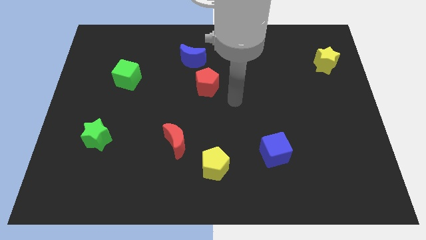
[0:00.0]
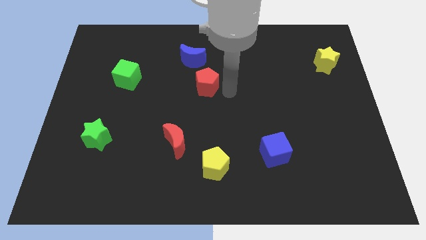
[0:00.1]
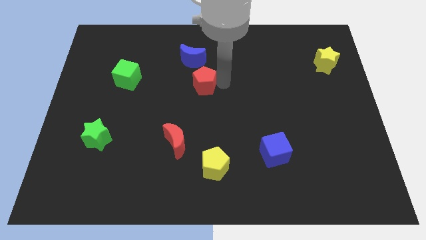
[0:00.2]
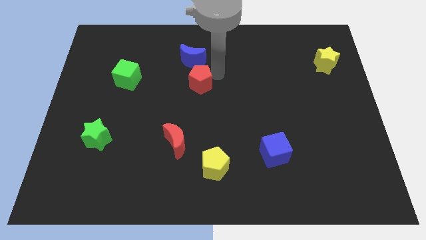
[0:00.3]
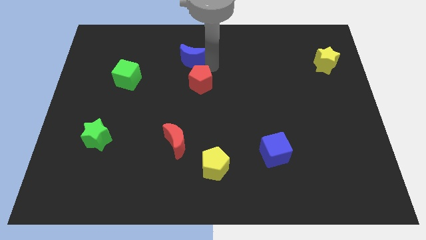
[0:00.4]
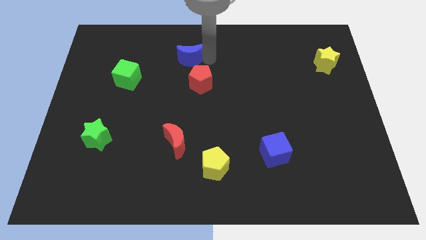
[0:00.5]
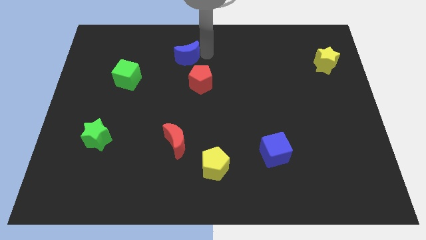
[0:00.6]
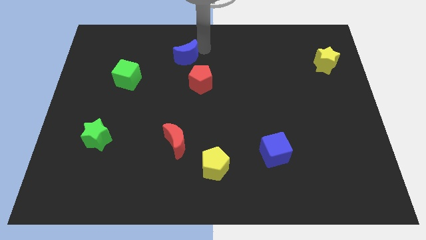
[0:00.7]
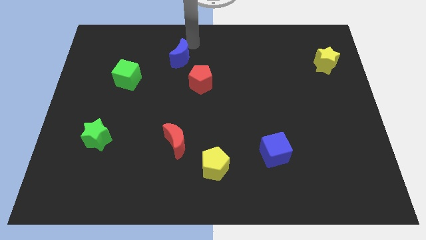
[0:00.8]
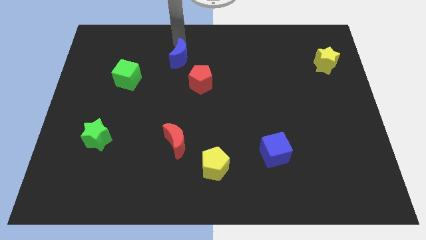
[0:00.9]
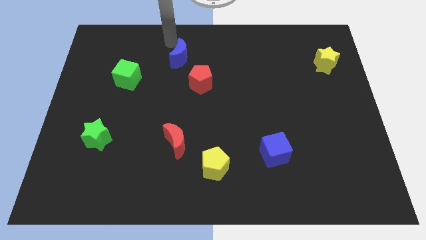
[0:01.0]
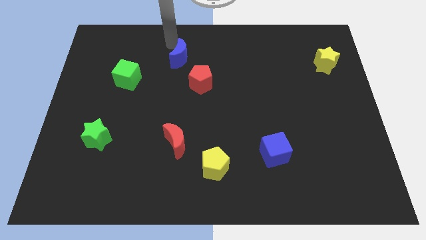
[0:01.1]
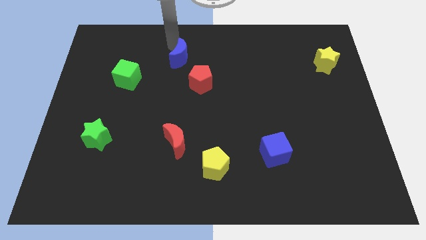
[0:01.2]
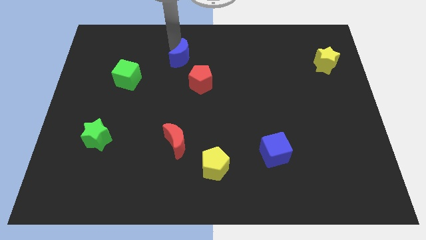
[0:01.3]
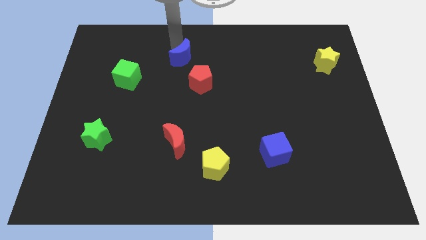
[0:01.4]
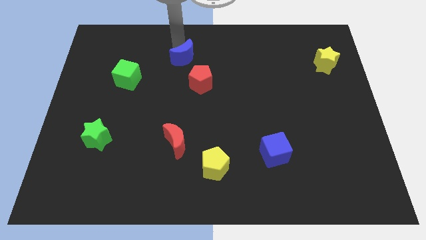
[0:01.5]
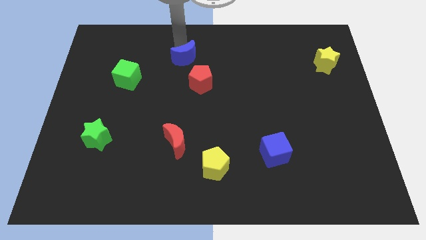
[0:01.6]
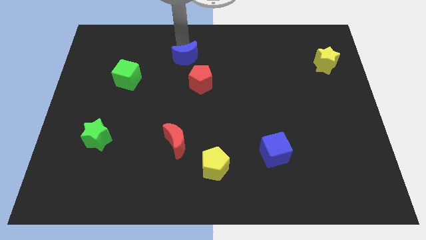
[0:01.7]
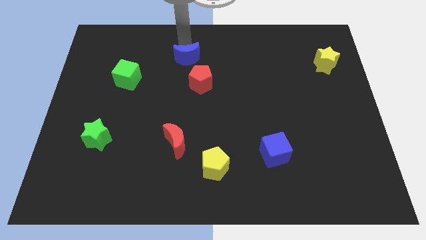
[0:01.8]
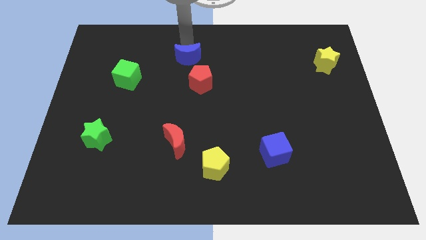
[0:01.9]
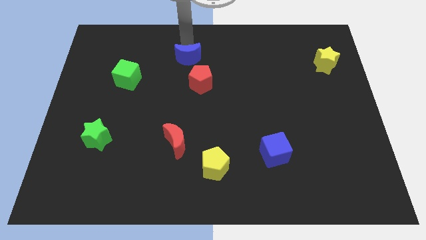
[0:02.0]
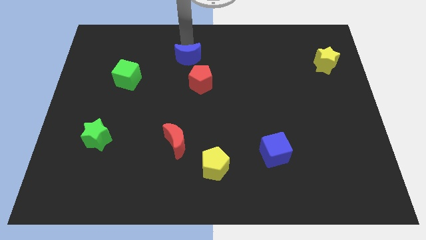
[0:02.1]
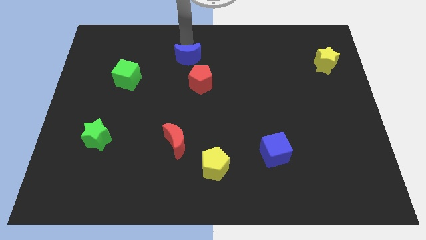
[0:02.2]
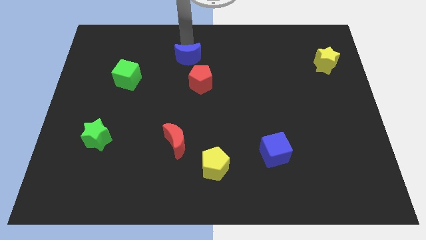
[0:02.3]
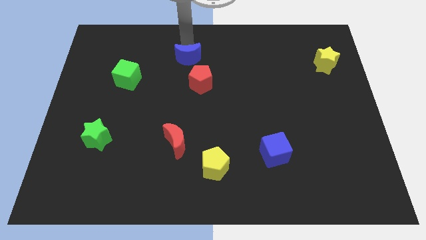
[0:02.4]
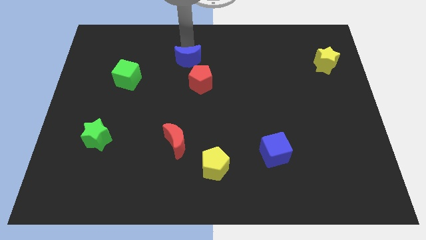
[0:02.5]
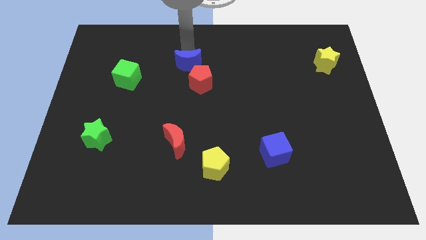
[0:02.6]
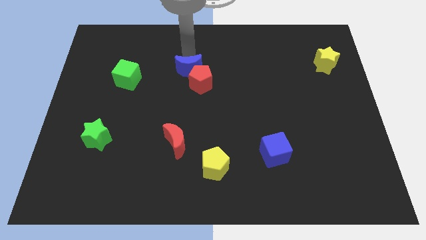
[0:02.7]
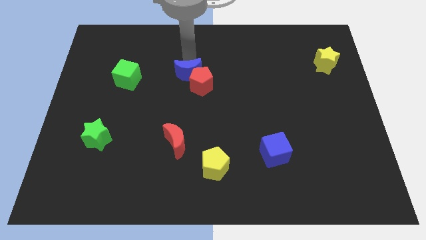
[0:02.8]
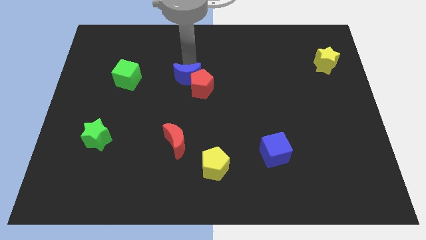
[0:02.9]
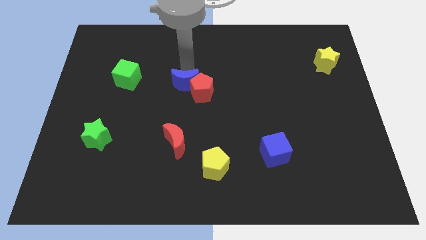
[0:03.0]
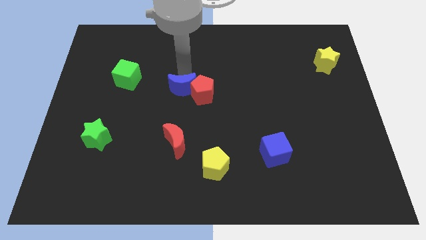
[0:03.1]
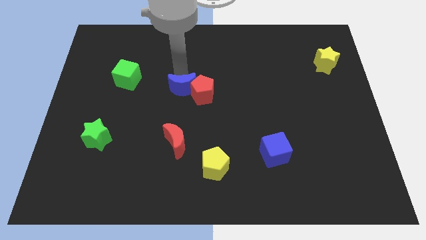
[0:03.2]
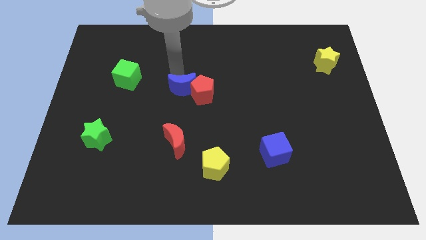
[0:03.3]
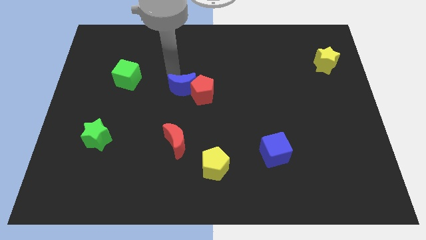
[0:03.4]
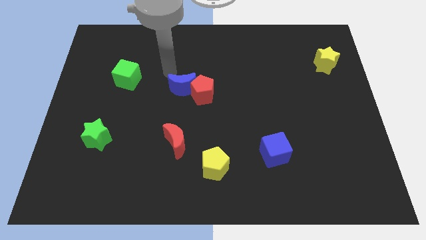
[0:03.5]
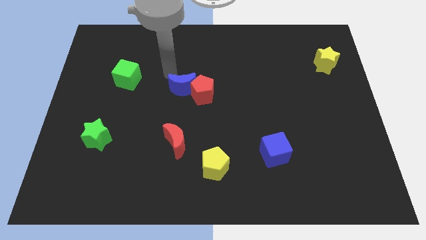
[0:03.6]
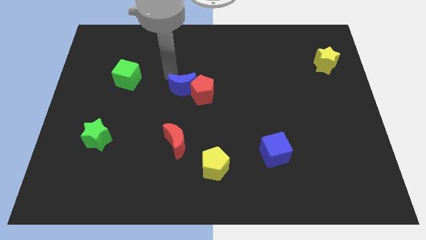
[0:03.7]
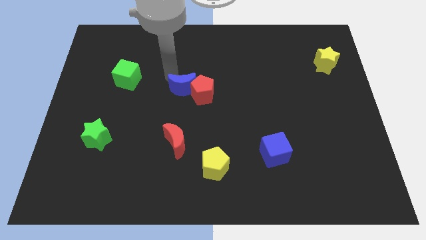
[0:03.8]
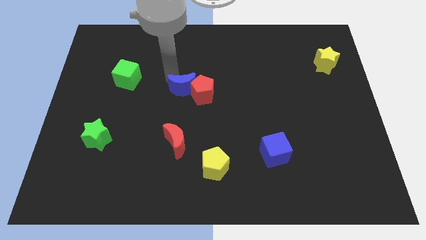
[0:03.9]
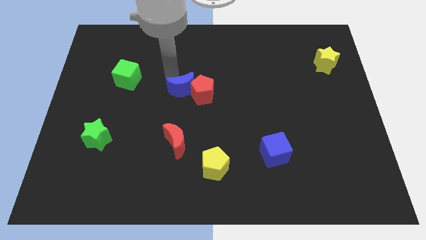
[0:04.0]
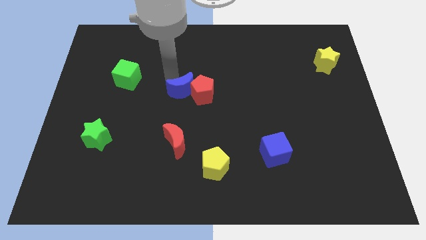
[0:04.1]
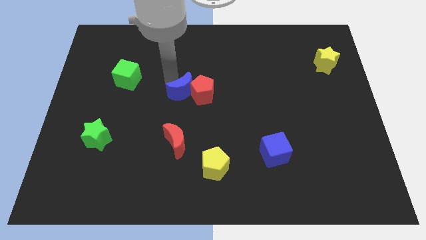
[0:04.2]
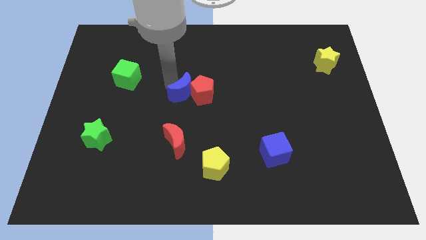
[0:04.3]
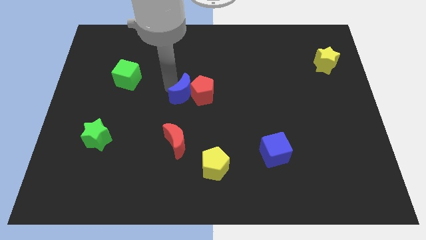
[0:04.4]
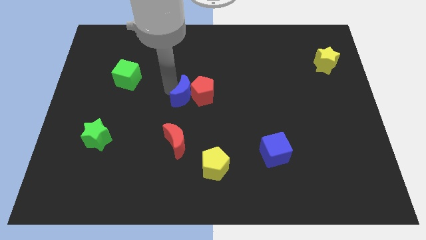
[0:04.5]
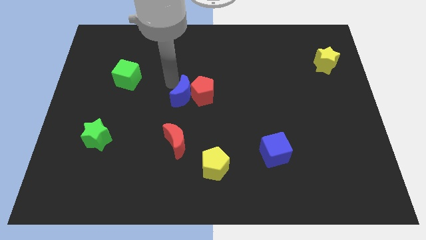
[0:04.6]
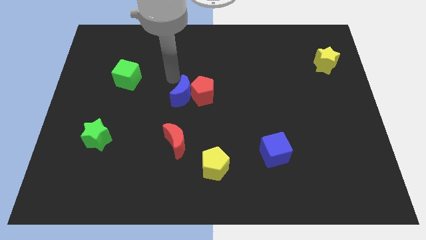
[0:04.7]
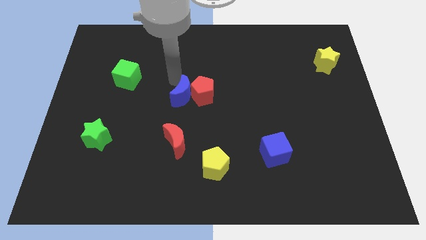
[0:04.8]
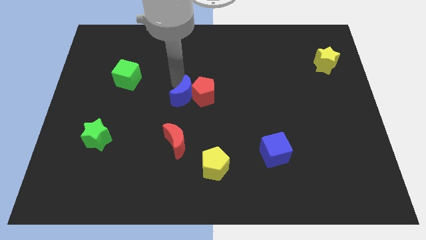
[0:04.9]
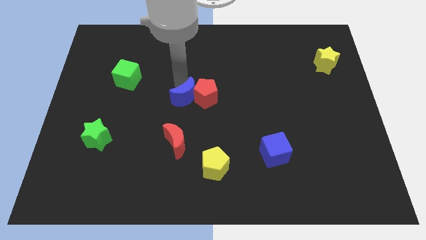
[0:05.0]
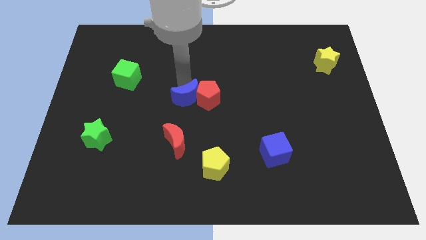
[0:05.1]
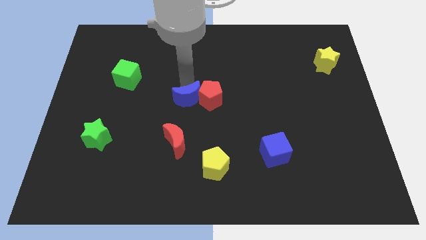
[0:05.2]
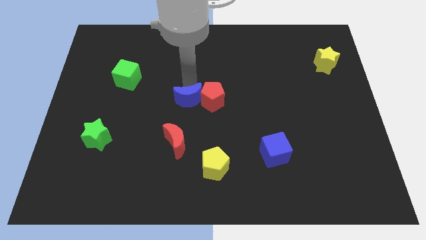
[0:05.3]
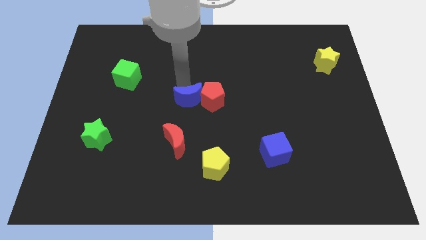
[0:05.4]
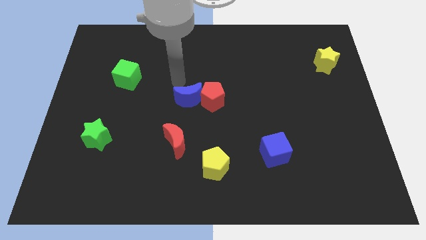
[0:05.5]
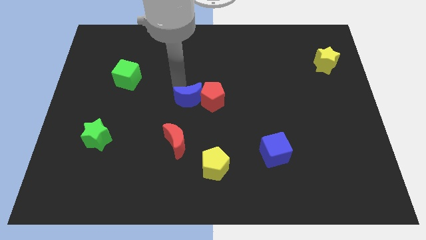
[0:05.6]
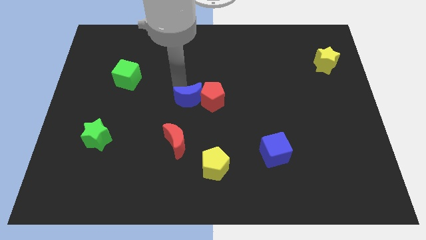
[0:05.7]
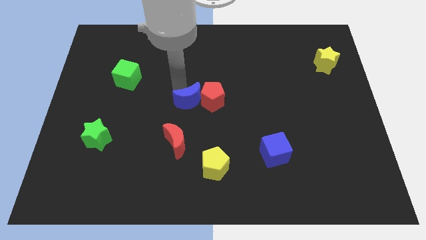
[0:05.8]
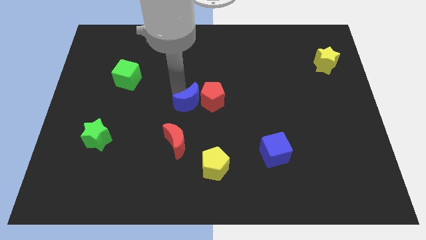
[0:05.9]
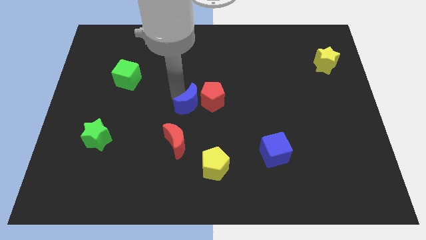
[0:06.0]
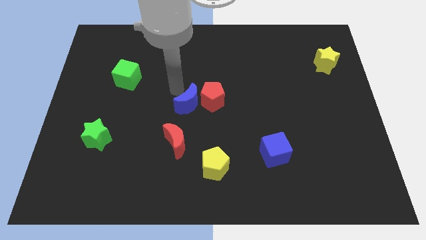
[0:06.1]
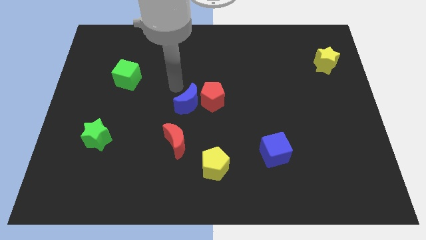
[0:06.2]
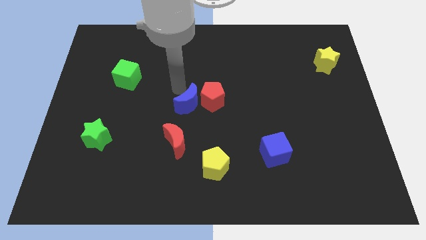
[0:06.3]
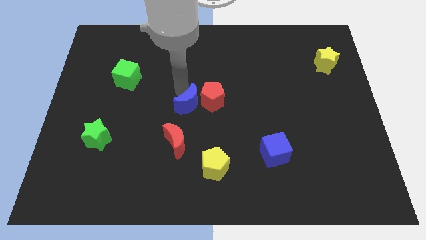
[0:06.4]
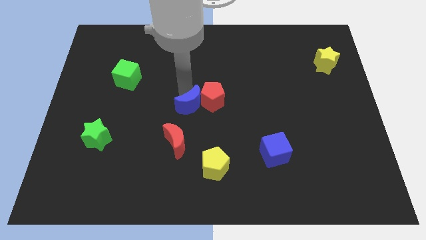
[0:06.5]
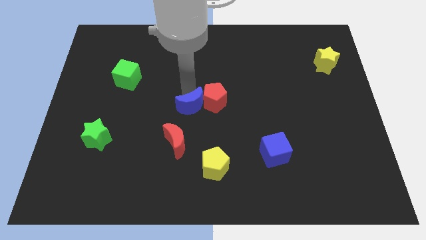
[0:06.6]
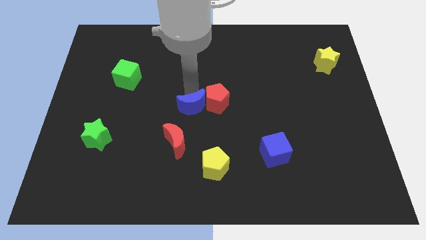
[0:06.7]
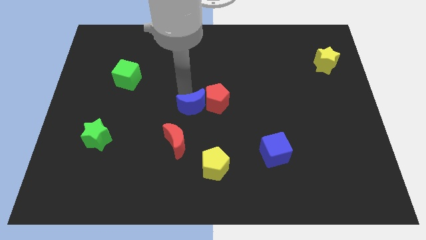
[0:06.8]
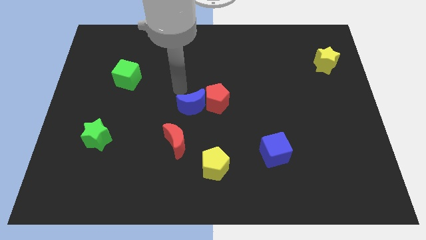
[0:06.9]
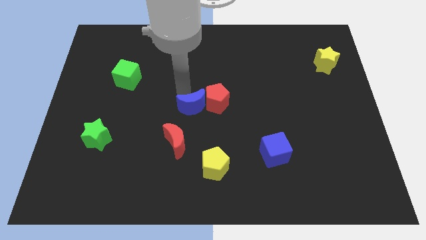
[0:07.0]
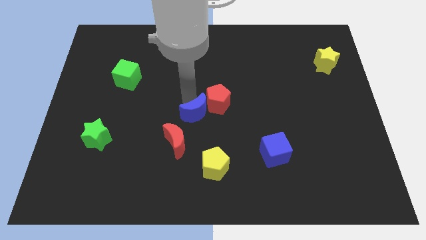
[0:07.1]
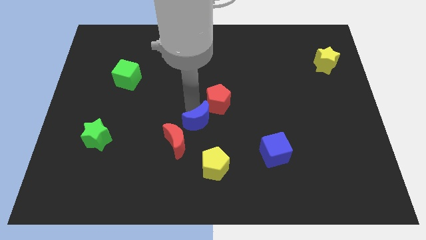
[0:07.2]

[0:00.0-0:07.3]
move the blue moon to the bottom of the red pentagon

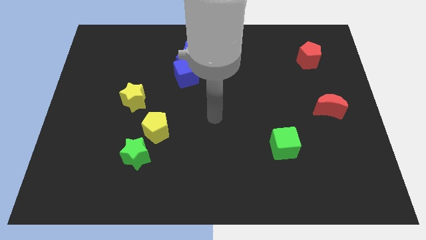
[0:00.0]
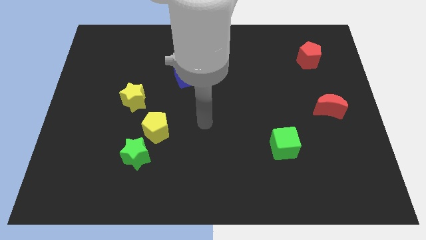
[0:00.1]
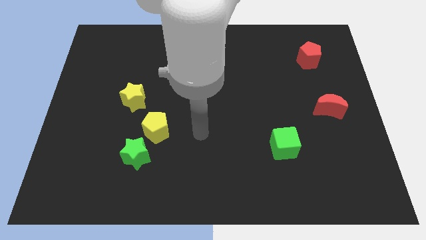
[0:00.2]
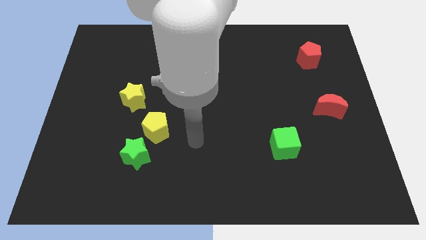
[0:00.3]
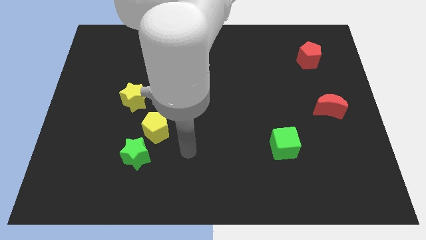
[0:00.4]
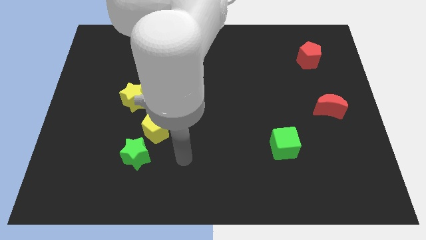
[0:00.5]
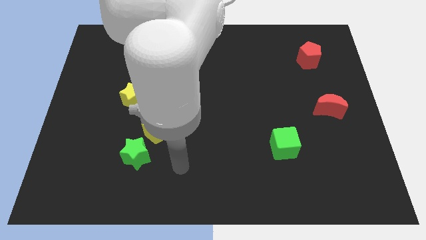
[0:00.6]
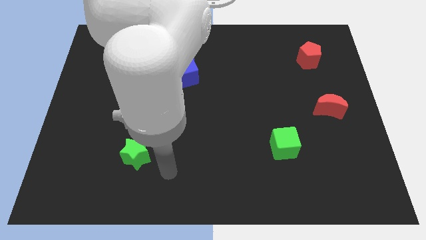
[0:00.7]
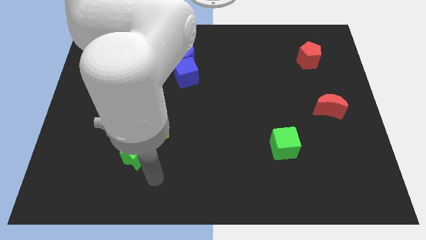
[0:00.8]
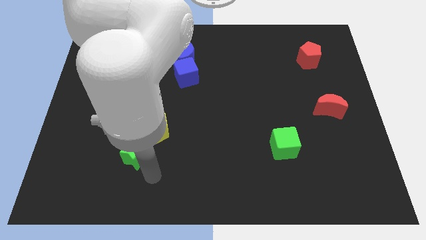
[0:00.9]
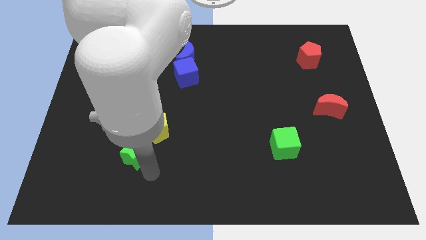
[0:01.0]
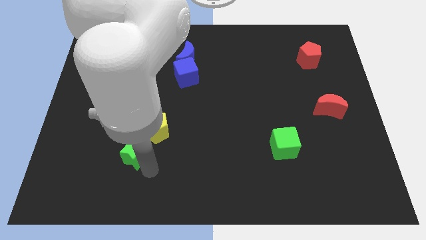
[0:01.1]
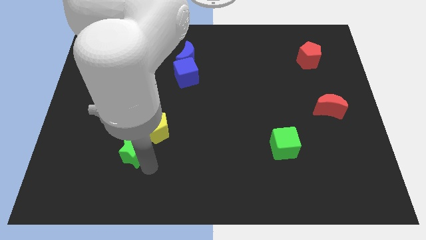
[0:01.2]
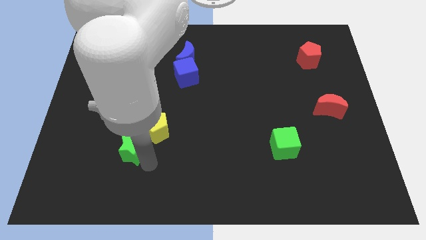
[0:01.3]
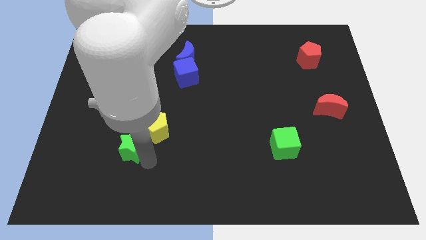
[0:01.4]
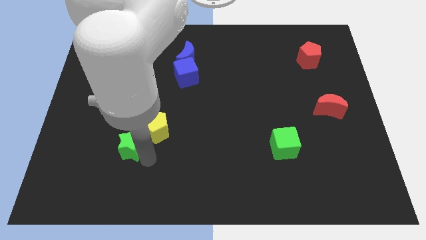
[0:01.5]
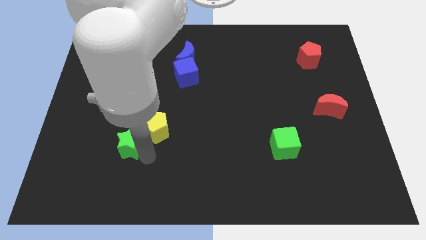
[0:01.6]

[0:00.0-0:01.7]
move the green star to the left of the yellow pentagon
